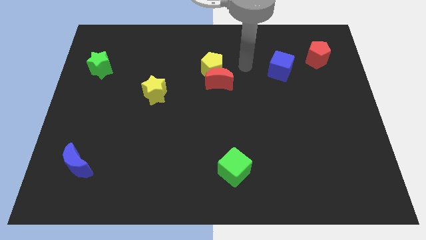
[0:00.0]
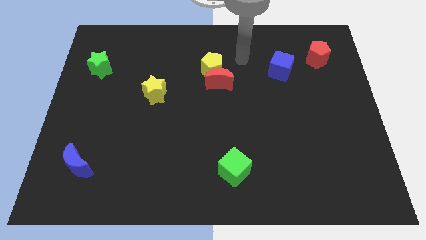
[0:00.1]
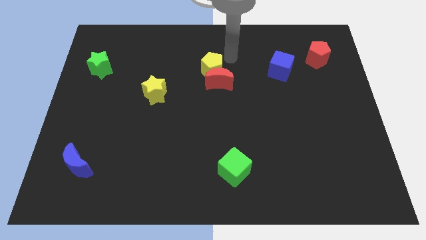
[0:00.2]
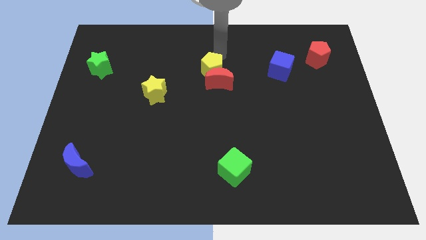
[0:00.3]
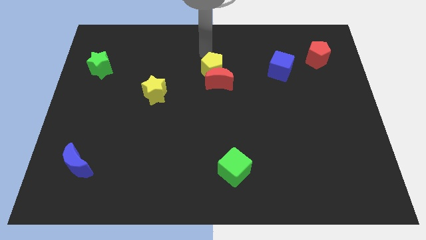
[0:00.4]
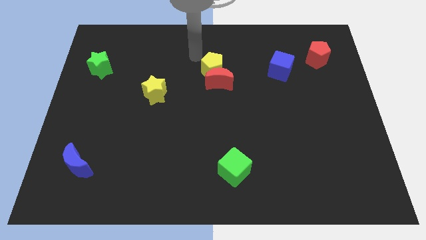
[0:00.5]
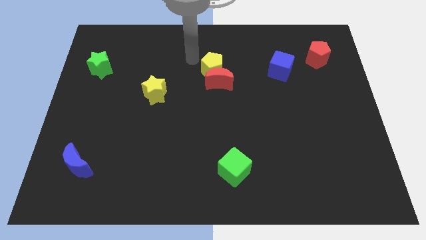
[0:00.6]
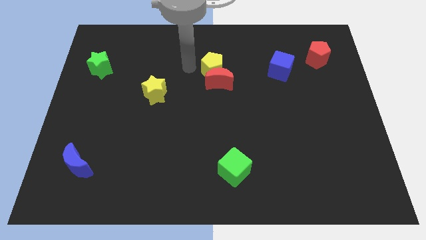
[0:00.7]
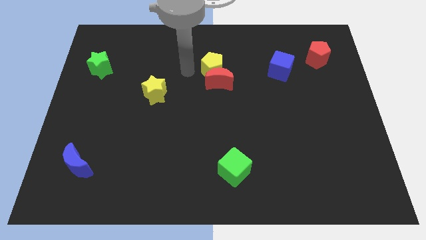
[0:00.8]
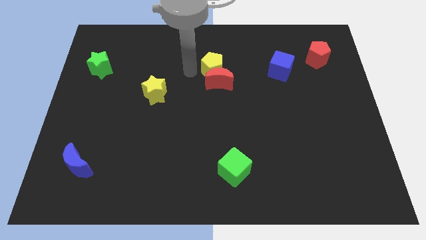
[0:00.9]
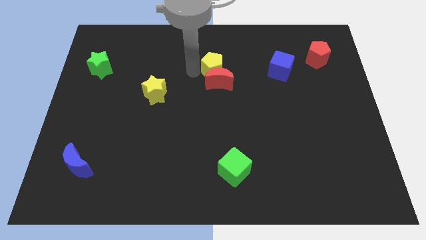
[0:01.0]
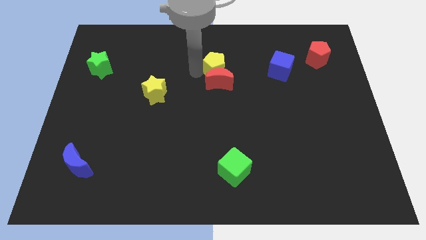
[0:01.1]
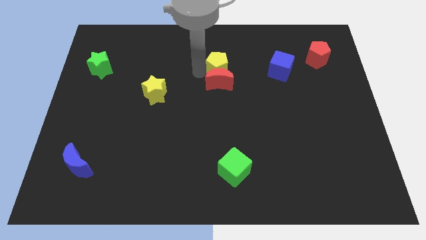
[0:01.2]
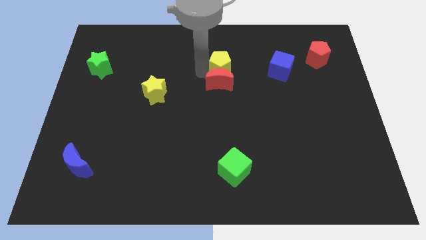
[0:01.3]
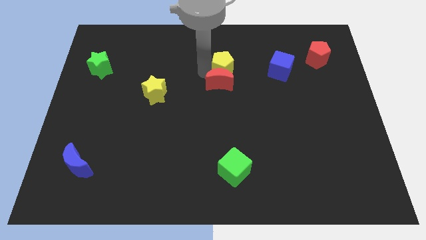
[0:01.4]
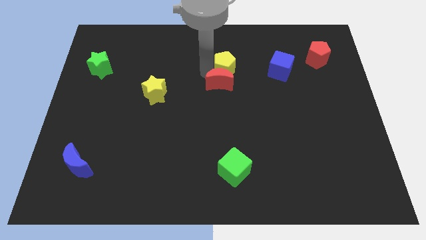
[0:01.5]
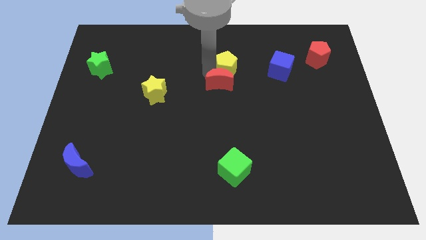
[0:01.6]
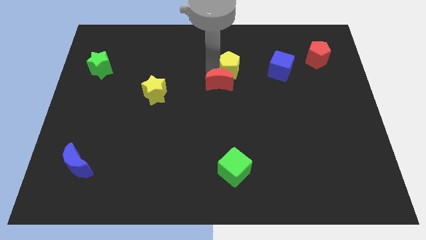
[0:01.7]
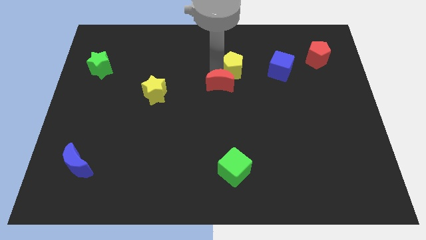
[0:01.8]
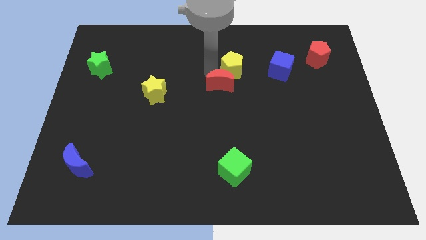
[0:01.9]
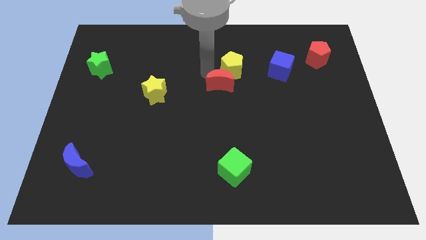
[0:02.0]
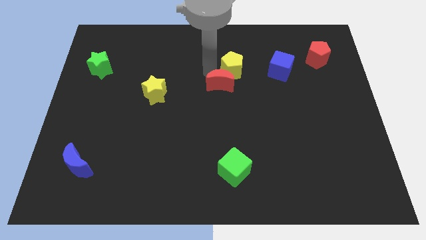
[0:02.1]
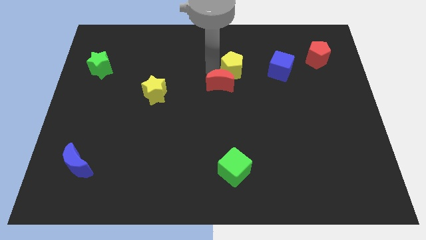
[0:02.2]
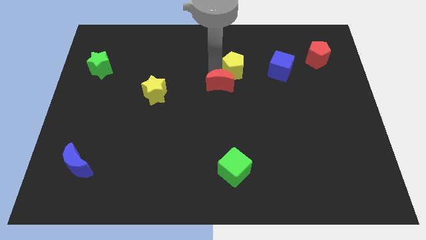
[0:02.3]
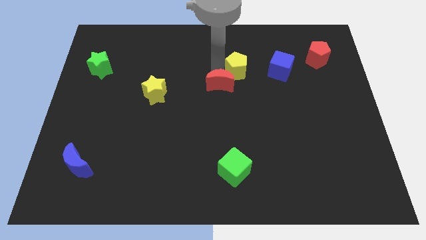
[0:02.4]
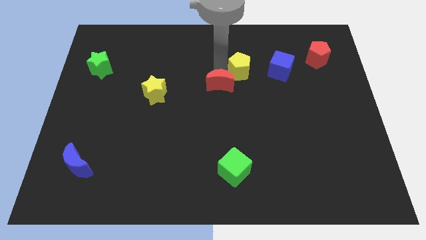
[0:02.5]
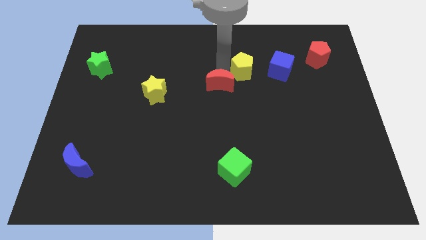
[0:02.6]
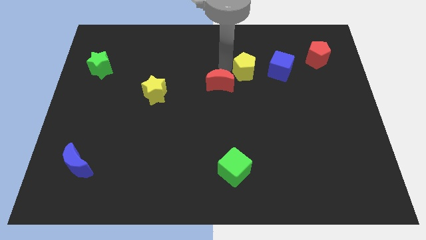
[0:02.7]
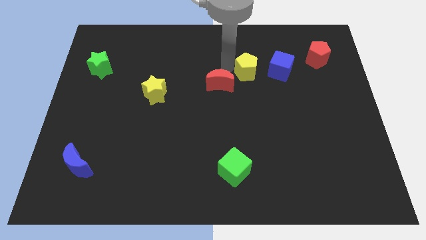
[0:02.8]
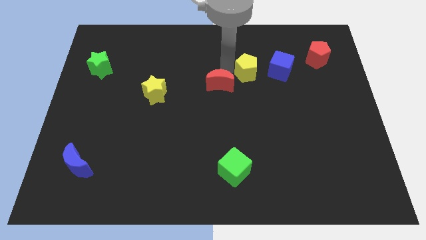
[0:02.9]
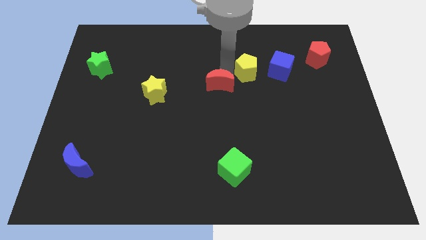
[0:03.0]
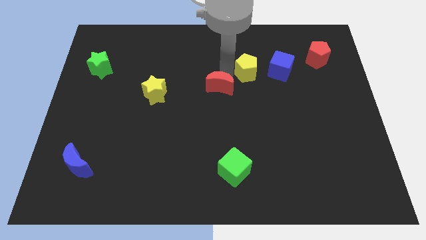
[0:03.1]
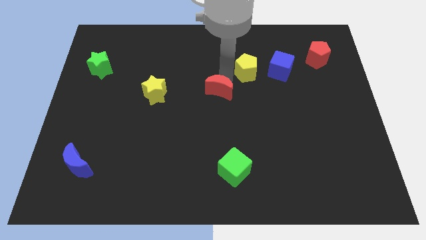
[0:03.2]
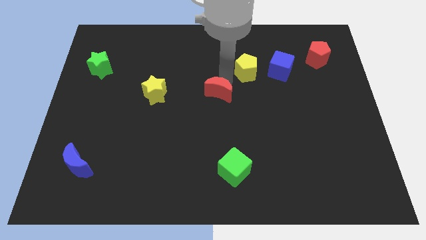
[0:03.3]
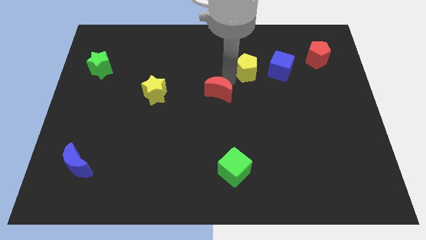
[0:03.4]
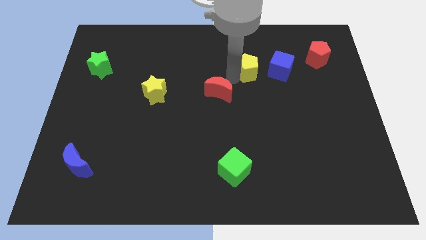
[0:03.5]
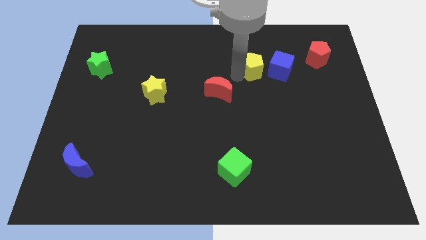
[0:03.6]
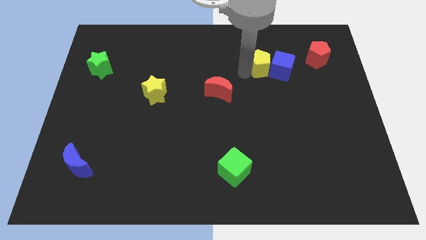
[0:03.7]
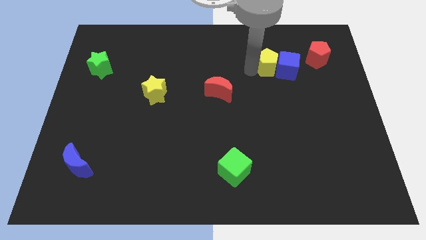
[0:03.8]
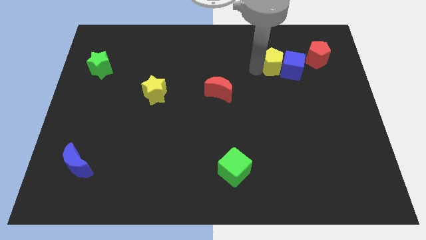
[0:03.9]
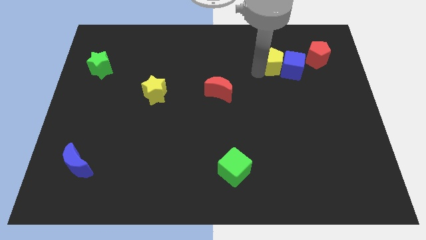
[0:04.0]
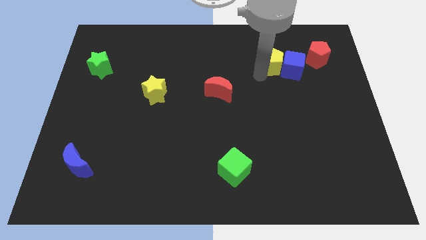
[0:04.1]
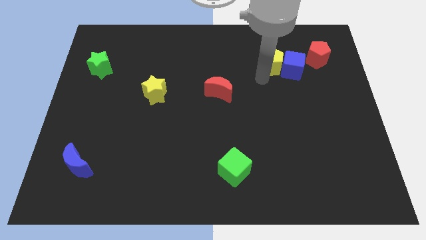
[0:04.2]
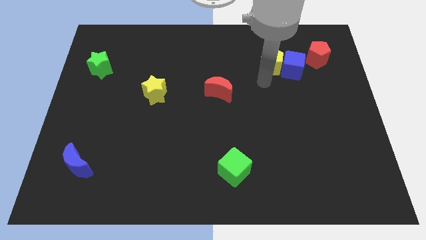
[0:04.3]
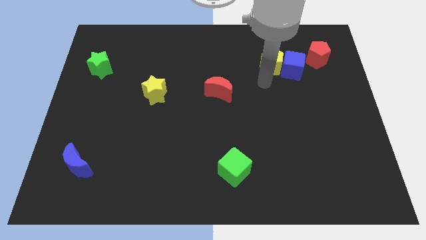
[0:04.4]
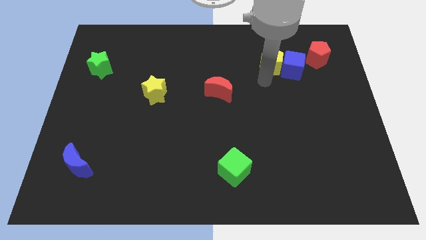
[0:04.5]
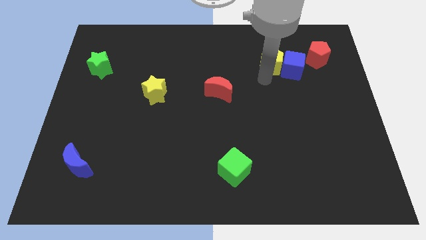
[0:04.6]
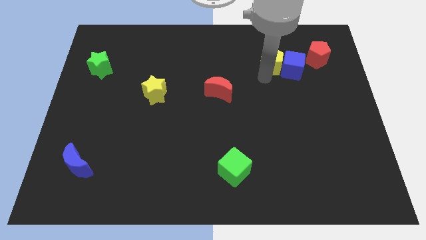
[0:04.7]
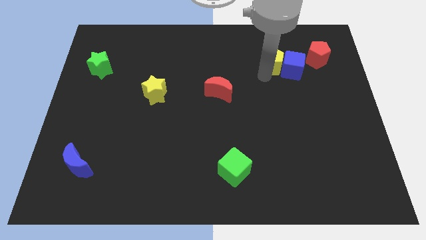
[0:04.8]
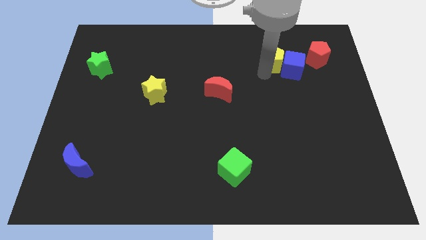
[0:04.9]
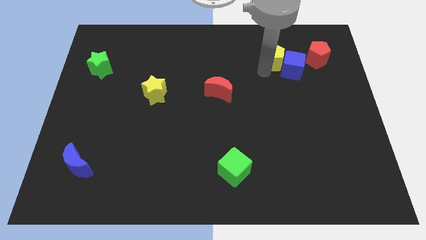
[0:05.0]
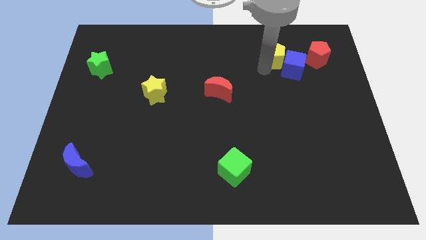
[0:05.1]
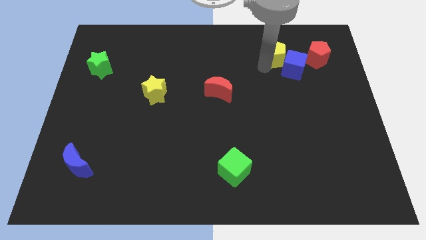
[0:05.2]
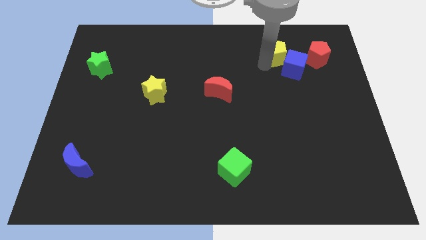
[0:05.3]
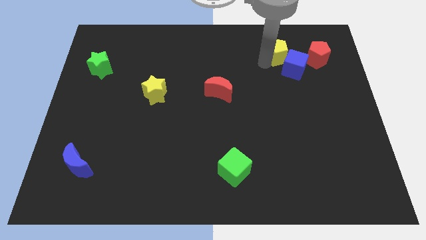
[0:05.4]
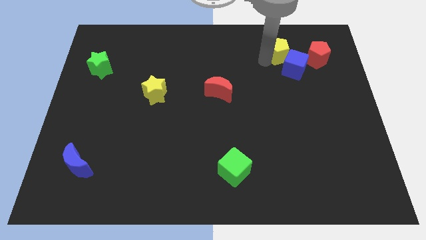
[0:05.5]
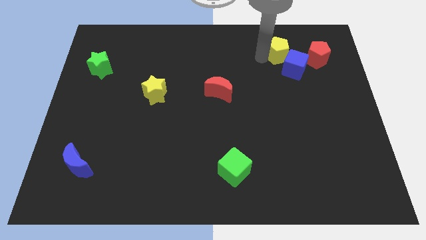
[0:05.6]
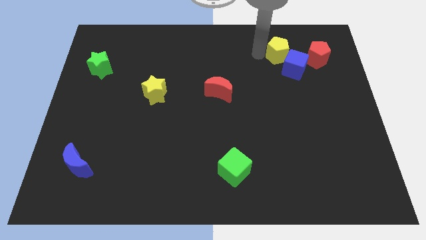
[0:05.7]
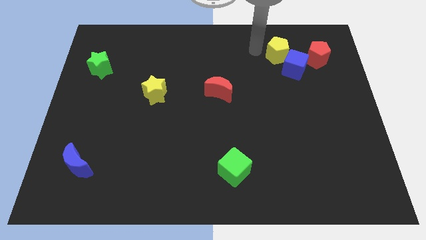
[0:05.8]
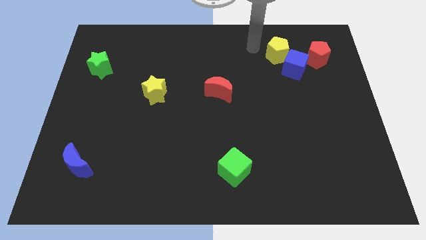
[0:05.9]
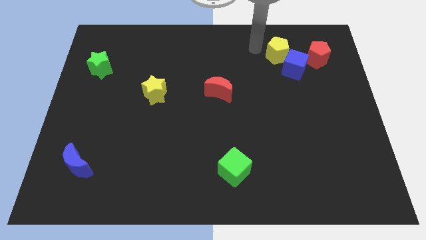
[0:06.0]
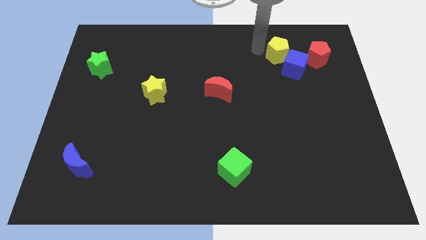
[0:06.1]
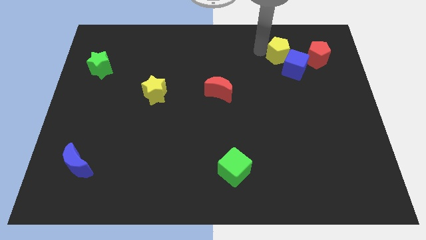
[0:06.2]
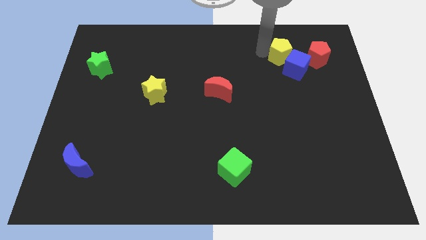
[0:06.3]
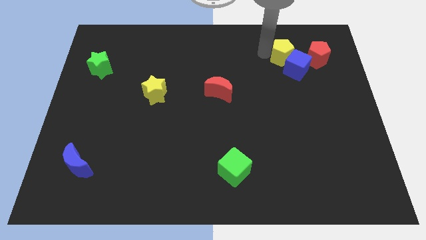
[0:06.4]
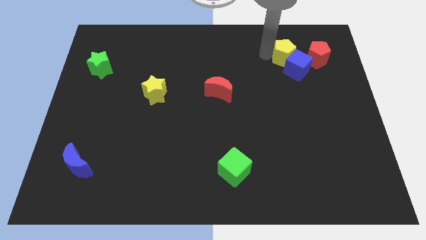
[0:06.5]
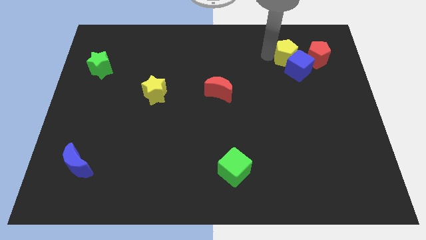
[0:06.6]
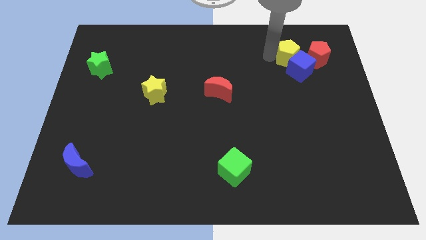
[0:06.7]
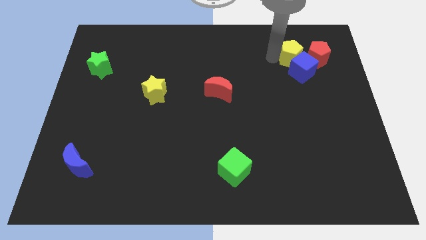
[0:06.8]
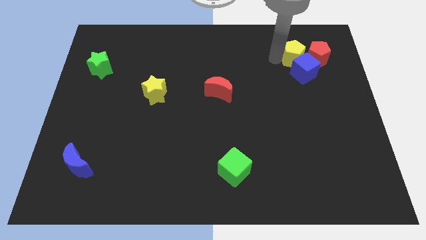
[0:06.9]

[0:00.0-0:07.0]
push the yellow pentagon towards the red pentagon
